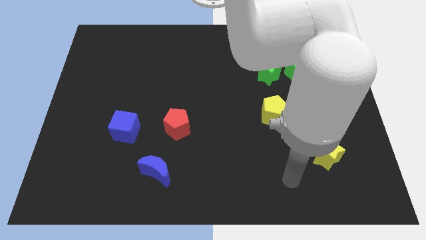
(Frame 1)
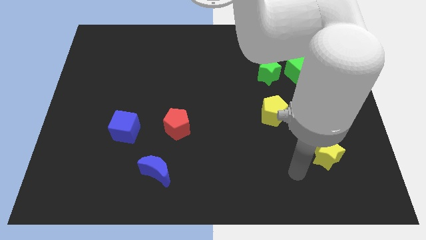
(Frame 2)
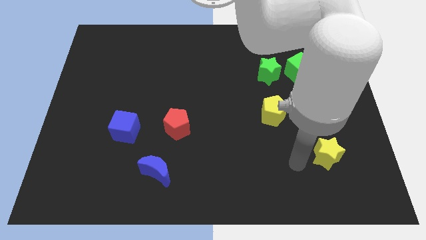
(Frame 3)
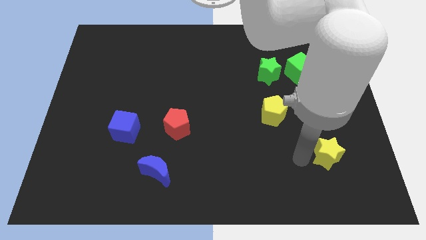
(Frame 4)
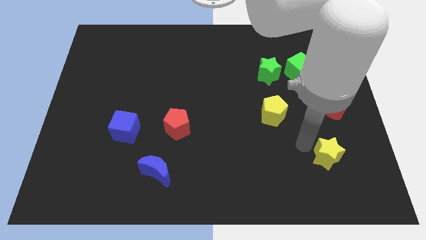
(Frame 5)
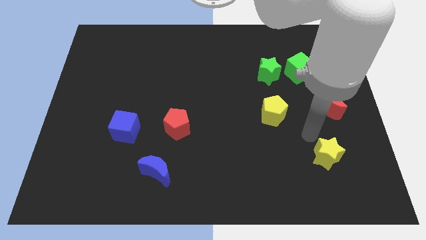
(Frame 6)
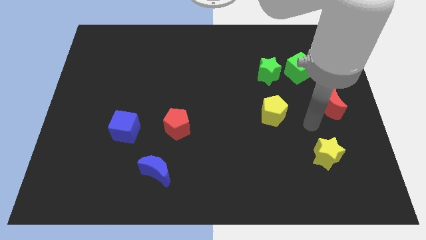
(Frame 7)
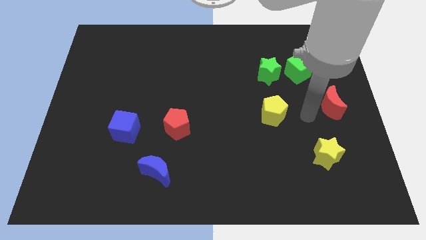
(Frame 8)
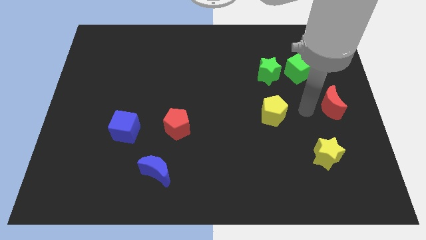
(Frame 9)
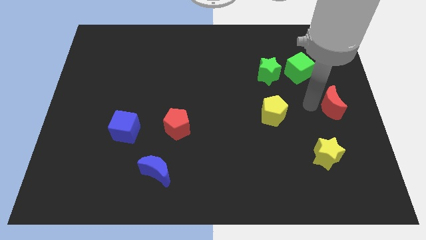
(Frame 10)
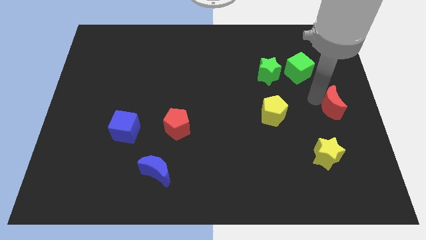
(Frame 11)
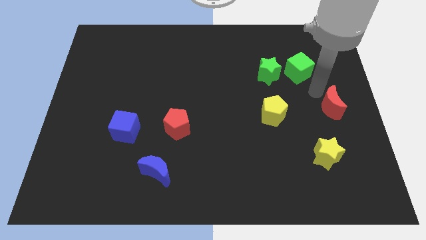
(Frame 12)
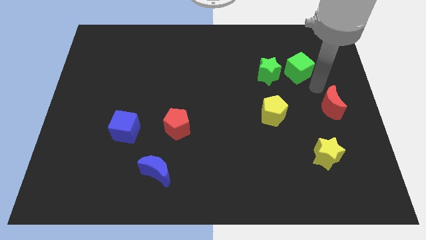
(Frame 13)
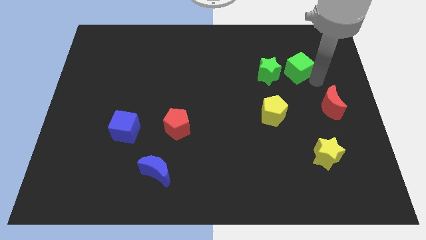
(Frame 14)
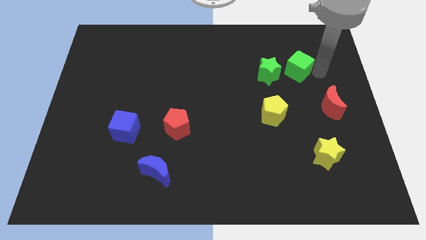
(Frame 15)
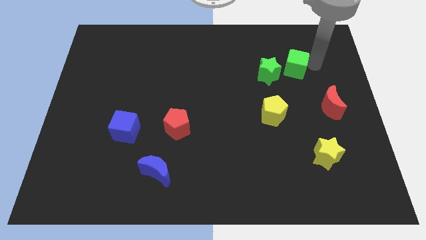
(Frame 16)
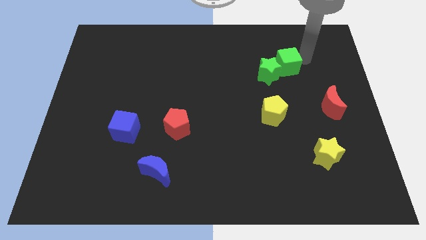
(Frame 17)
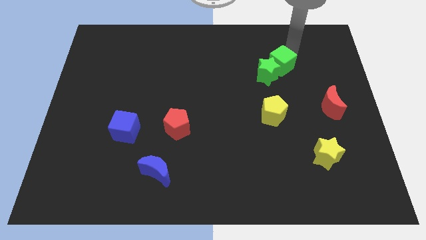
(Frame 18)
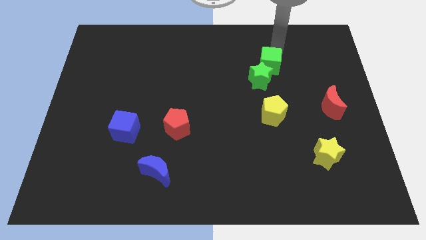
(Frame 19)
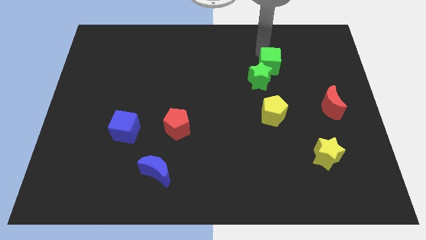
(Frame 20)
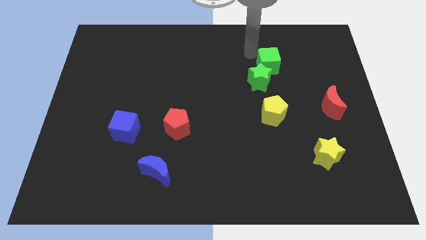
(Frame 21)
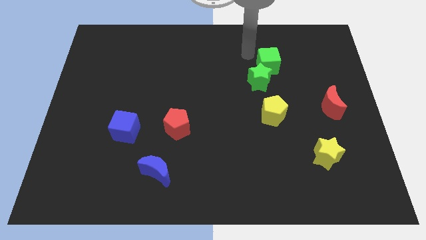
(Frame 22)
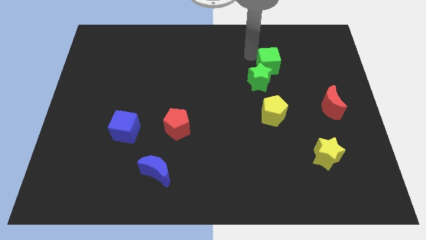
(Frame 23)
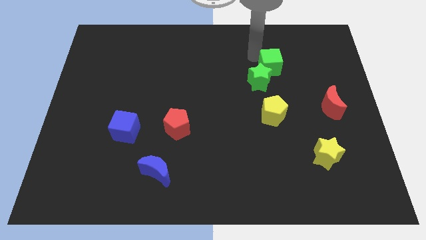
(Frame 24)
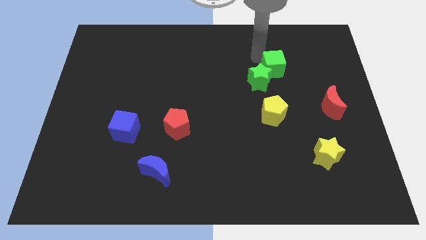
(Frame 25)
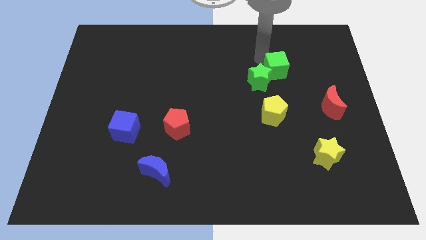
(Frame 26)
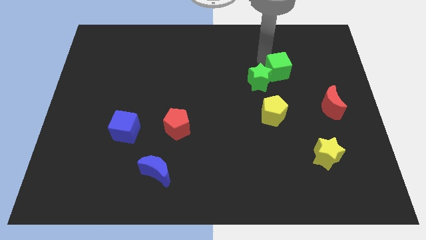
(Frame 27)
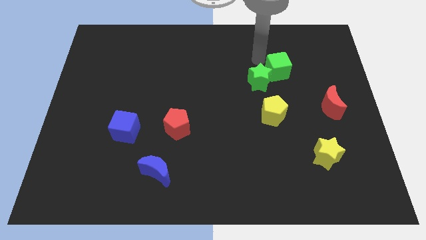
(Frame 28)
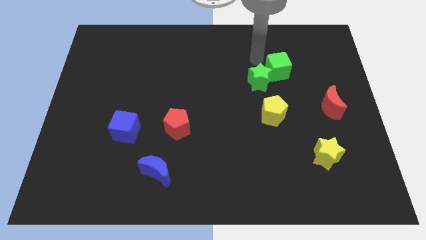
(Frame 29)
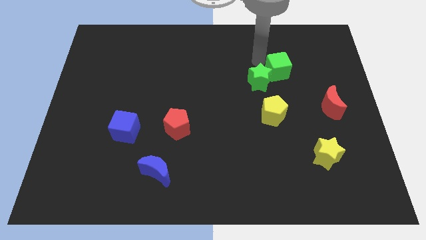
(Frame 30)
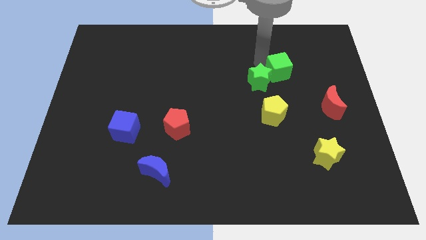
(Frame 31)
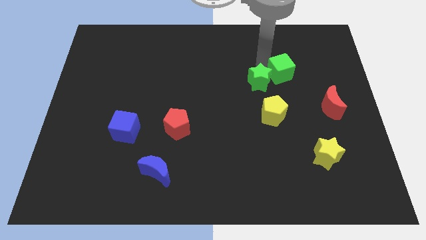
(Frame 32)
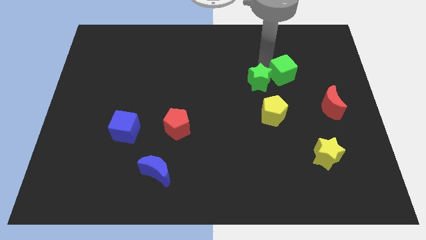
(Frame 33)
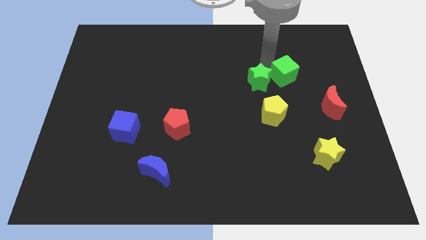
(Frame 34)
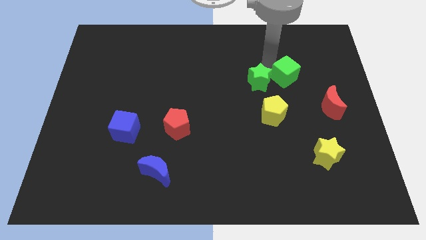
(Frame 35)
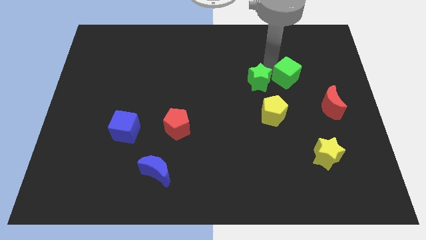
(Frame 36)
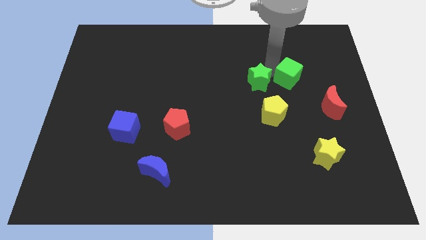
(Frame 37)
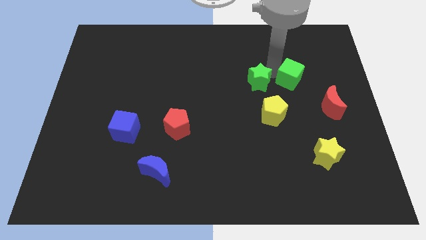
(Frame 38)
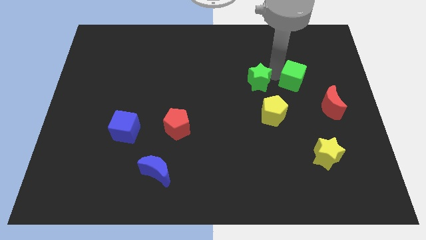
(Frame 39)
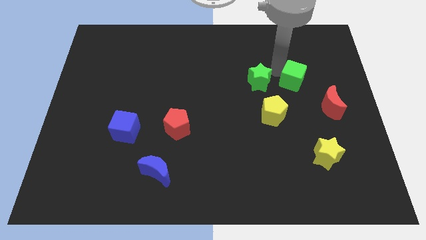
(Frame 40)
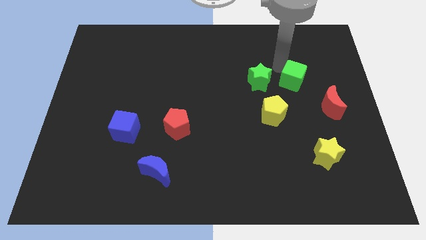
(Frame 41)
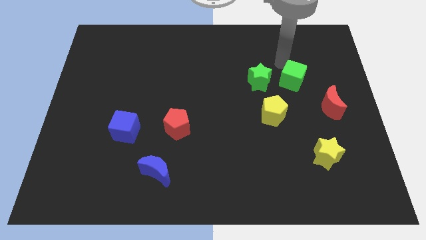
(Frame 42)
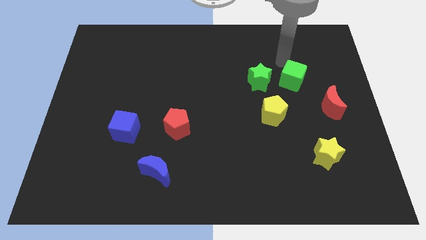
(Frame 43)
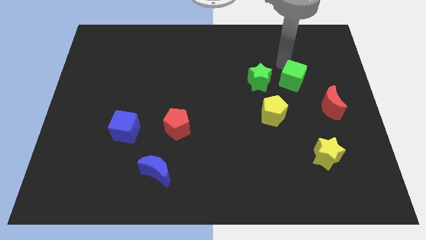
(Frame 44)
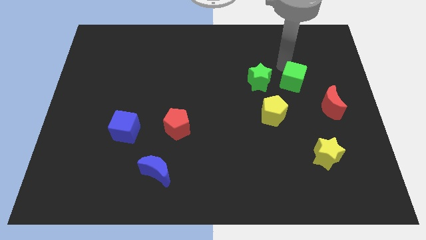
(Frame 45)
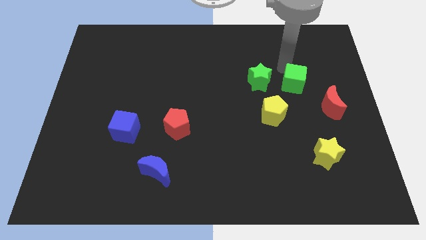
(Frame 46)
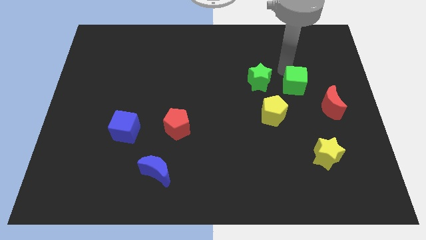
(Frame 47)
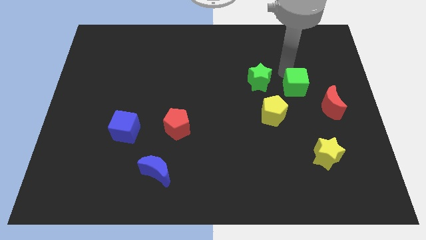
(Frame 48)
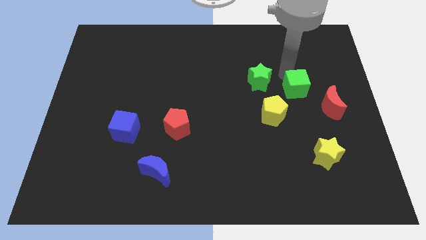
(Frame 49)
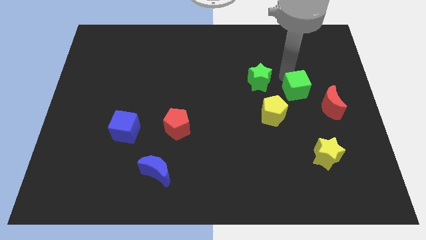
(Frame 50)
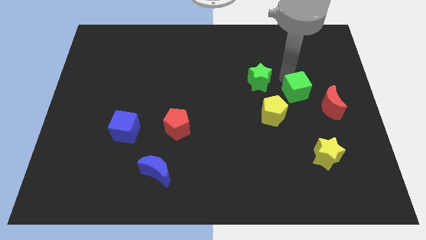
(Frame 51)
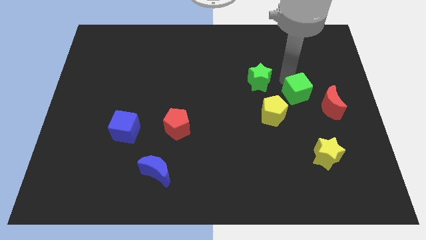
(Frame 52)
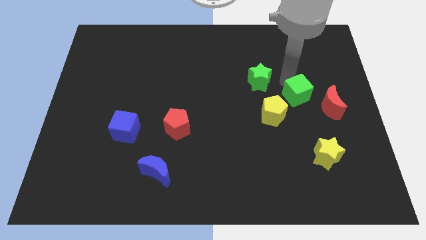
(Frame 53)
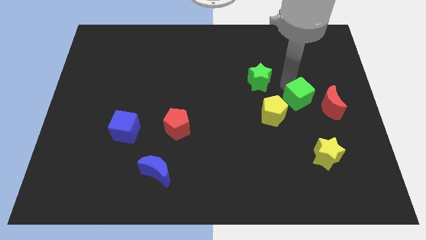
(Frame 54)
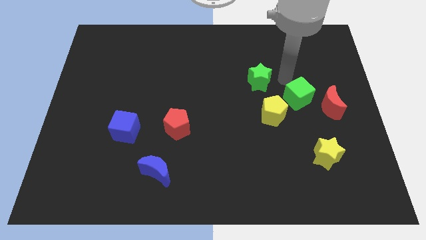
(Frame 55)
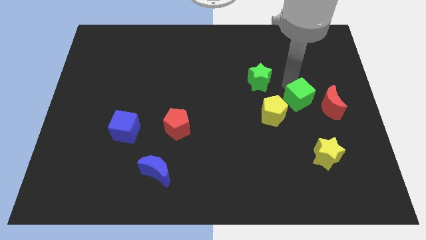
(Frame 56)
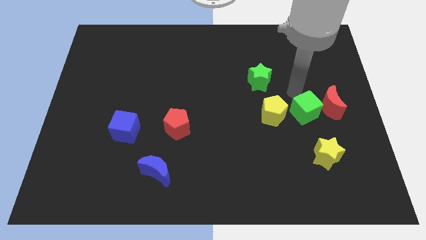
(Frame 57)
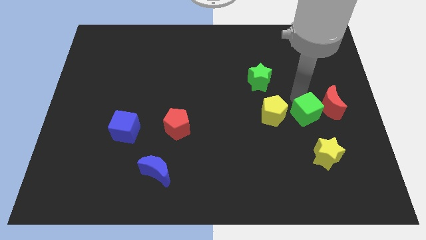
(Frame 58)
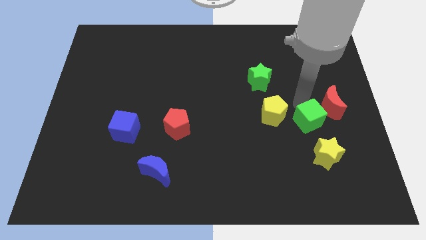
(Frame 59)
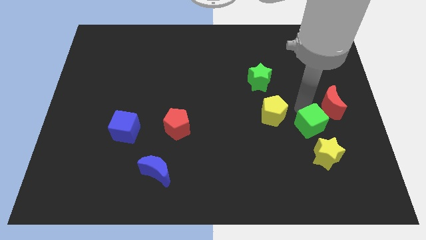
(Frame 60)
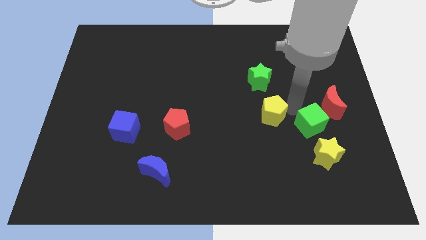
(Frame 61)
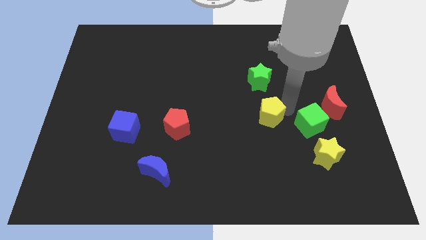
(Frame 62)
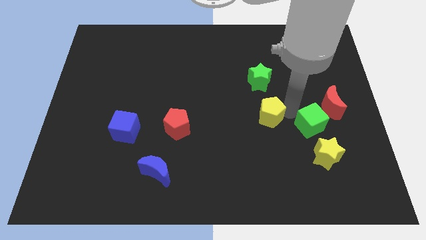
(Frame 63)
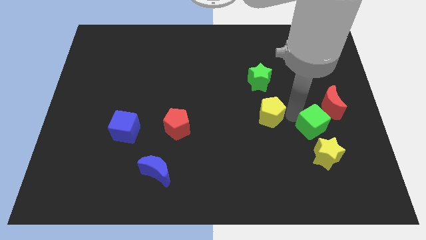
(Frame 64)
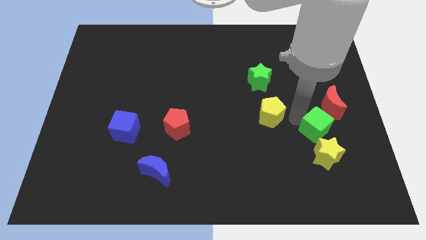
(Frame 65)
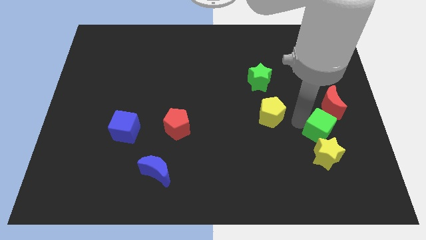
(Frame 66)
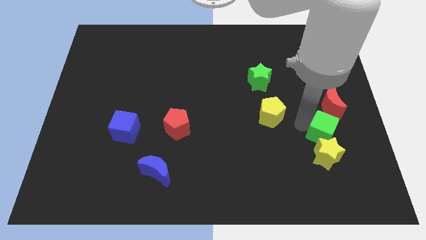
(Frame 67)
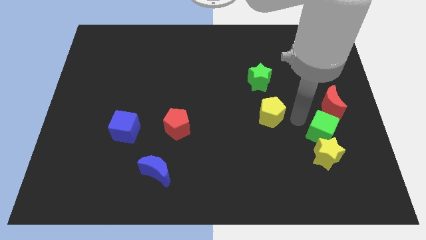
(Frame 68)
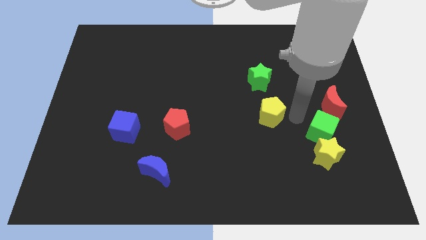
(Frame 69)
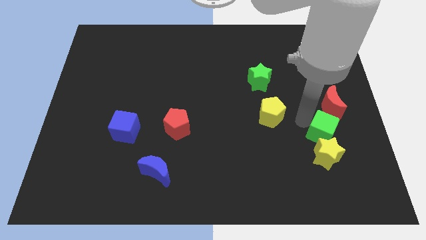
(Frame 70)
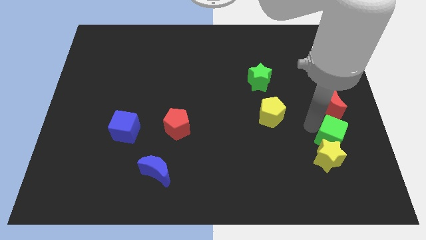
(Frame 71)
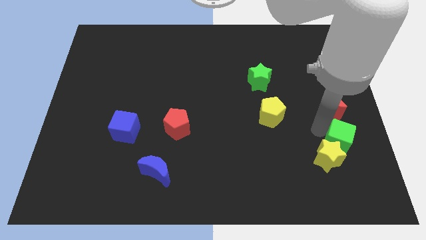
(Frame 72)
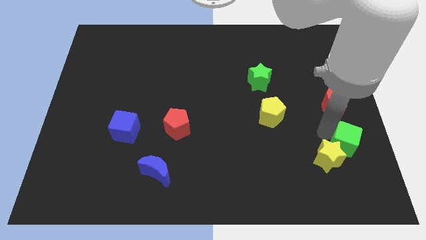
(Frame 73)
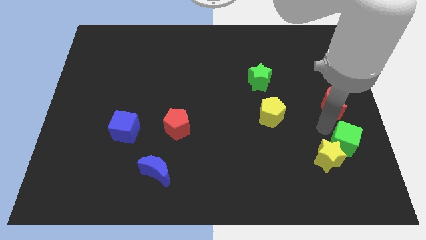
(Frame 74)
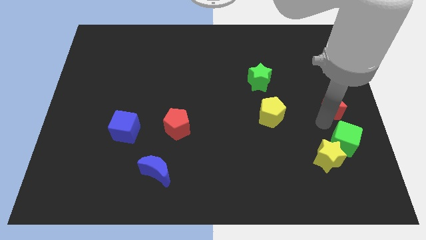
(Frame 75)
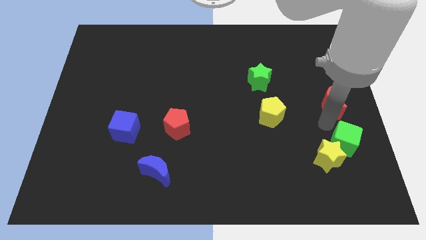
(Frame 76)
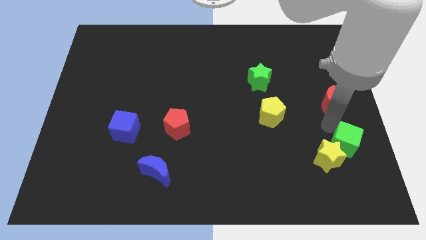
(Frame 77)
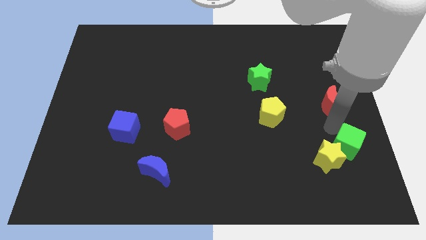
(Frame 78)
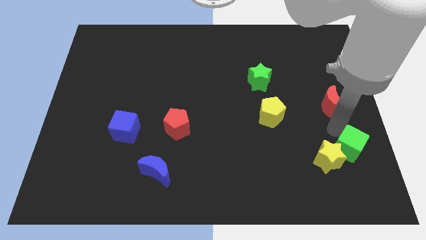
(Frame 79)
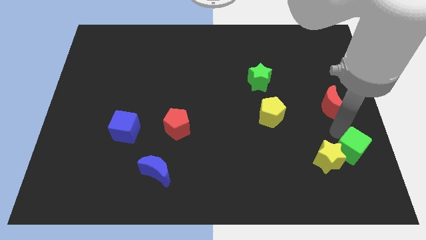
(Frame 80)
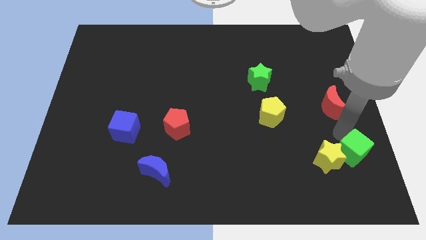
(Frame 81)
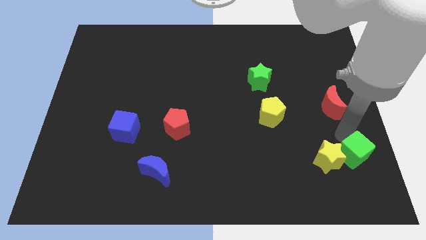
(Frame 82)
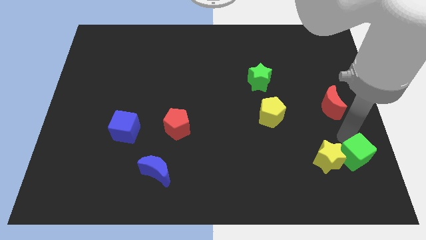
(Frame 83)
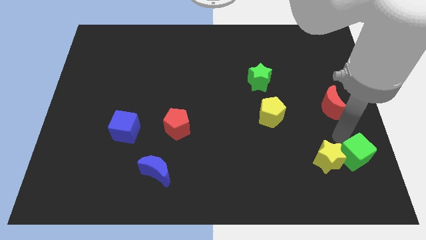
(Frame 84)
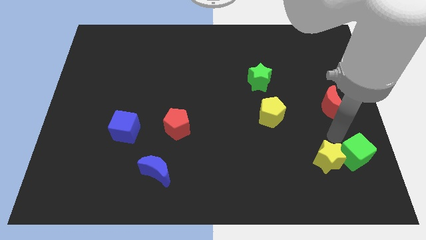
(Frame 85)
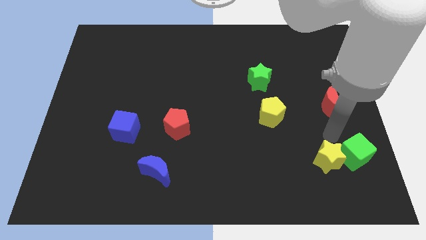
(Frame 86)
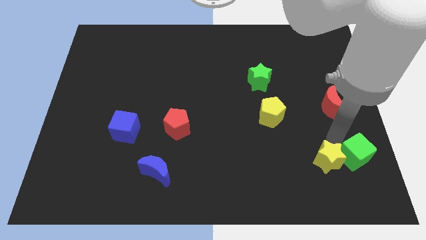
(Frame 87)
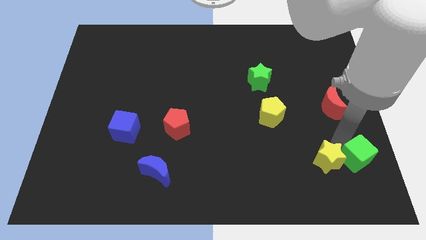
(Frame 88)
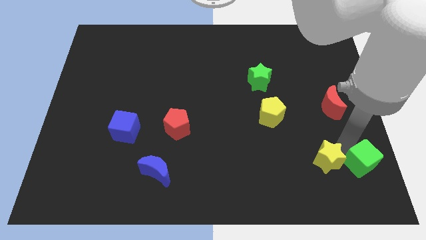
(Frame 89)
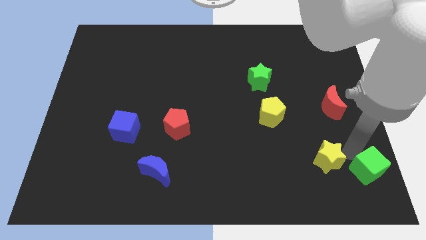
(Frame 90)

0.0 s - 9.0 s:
push the green cube to the bottom right corner
